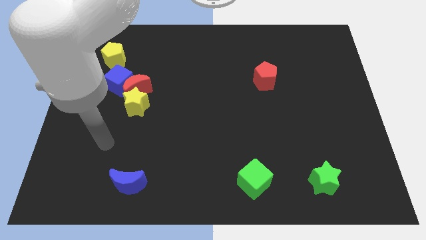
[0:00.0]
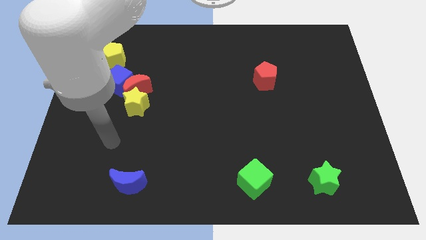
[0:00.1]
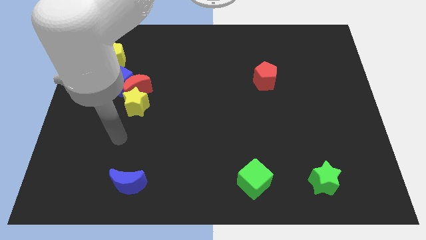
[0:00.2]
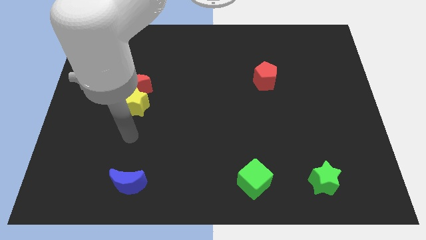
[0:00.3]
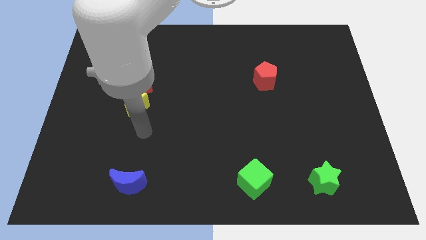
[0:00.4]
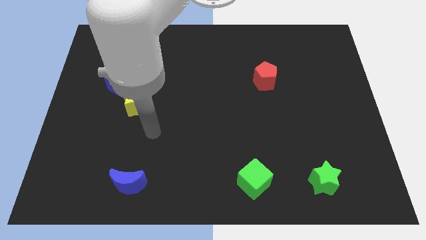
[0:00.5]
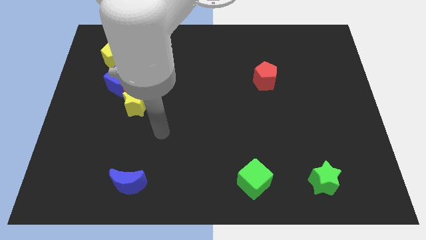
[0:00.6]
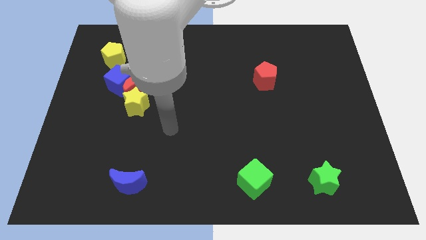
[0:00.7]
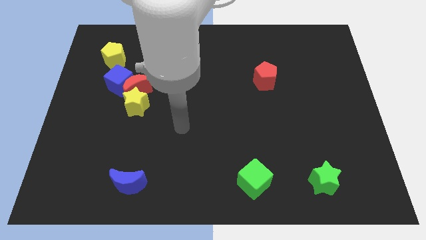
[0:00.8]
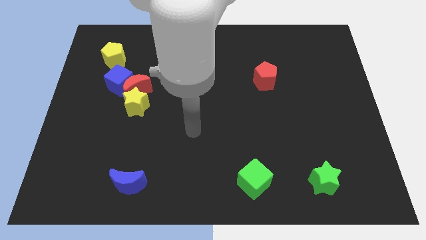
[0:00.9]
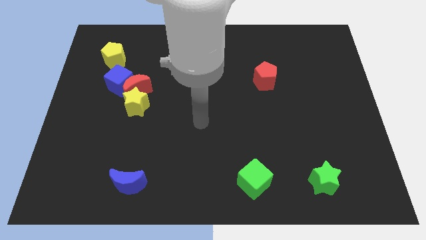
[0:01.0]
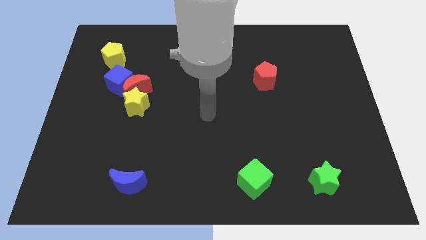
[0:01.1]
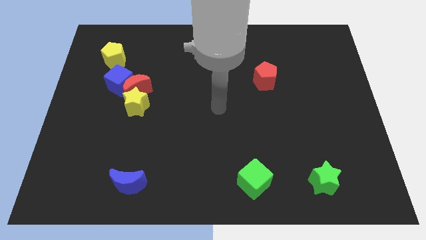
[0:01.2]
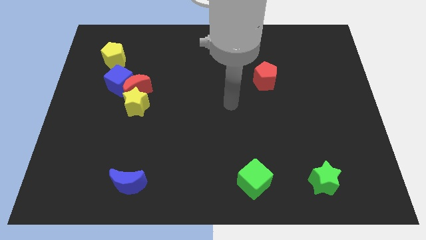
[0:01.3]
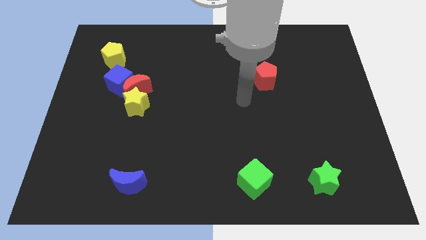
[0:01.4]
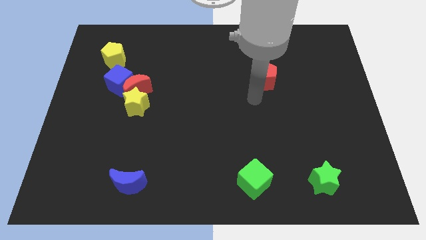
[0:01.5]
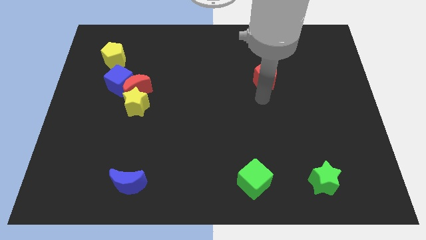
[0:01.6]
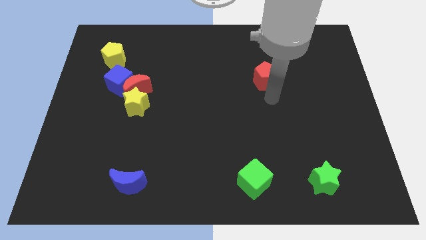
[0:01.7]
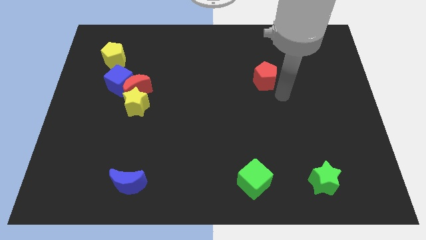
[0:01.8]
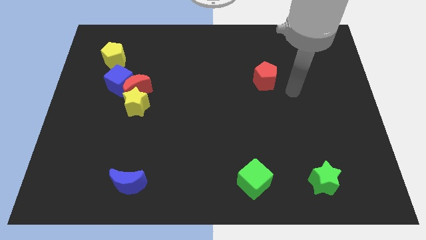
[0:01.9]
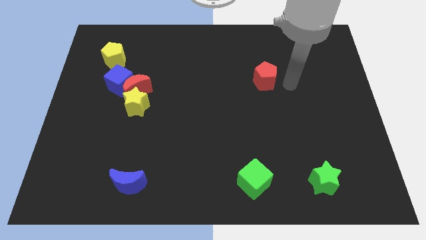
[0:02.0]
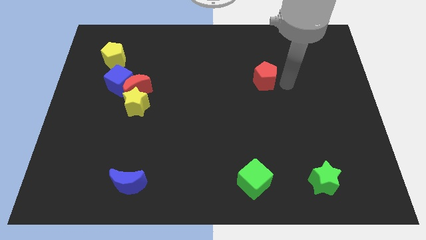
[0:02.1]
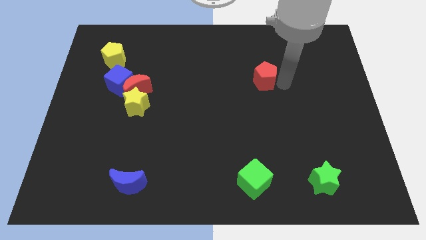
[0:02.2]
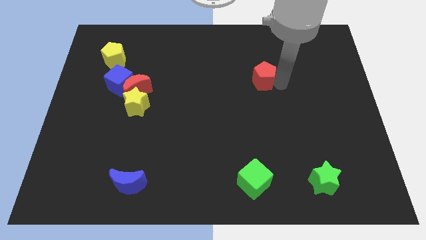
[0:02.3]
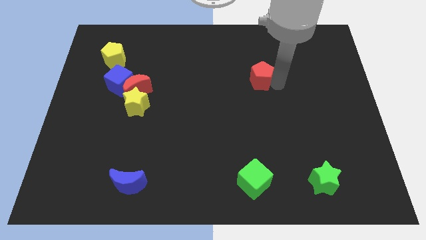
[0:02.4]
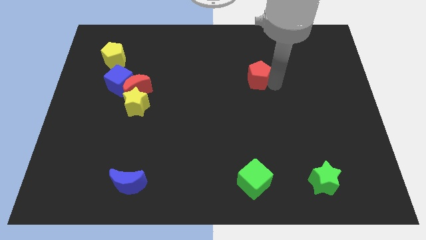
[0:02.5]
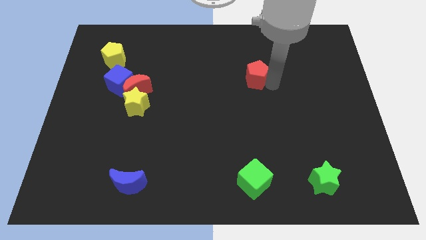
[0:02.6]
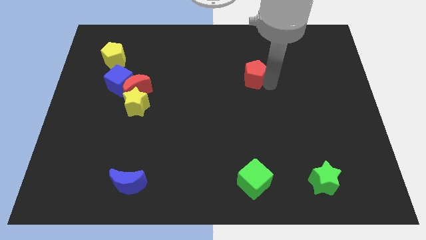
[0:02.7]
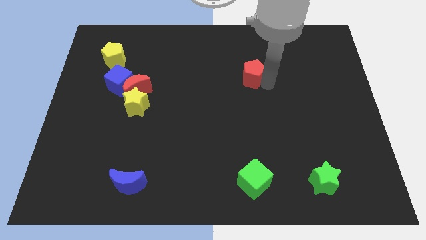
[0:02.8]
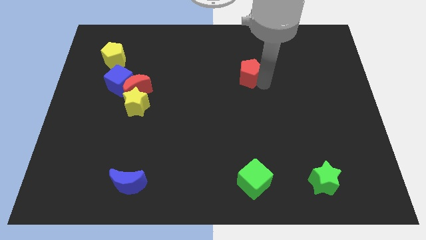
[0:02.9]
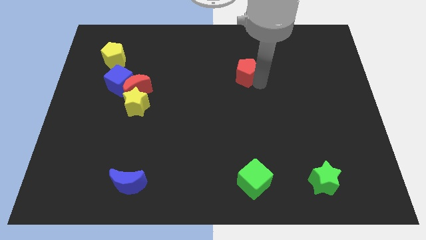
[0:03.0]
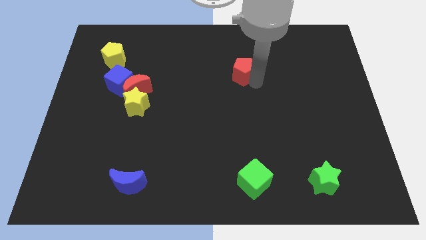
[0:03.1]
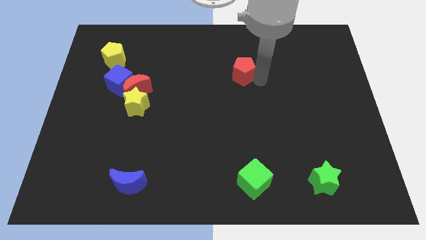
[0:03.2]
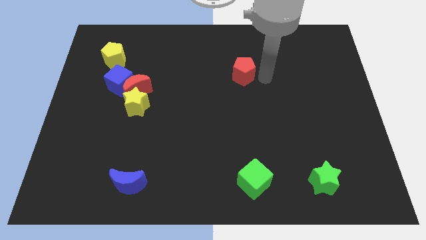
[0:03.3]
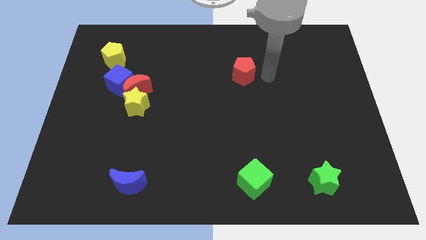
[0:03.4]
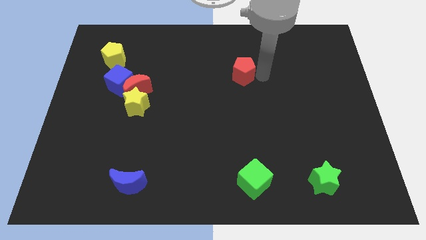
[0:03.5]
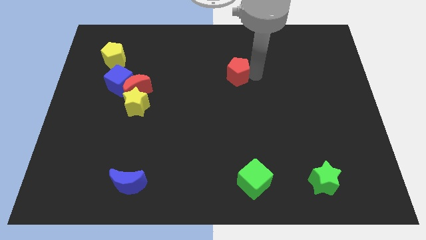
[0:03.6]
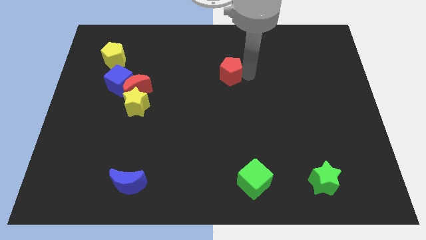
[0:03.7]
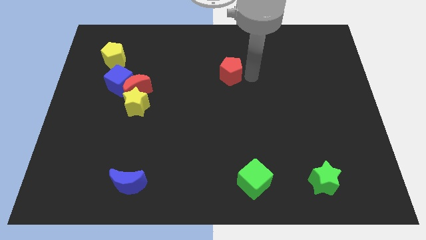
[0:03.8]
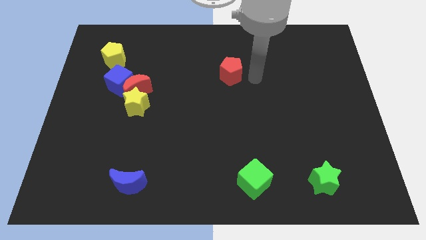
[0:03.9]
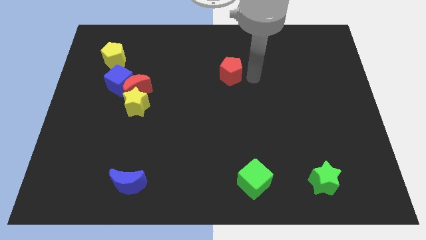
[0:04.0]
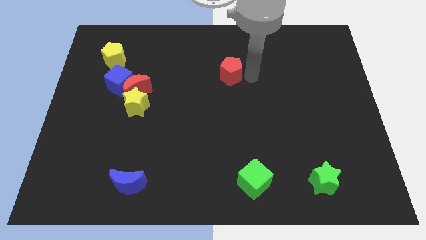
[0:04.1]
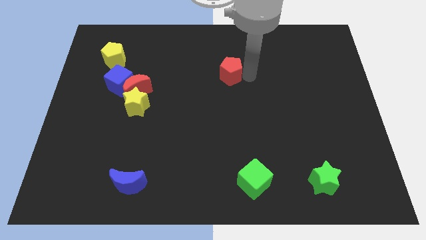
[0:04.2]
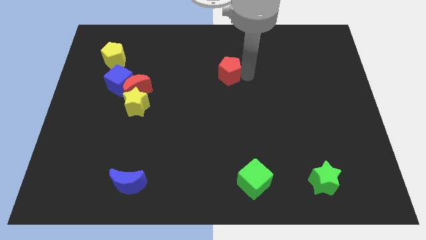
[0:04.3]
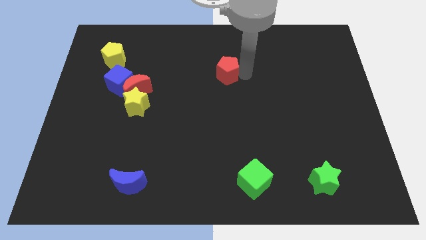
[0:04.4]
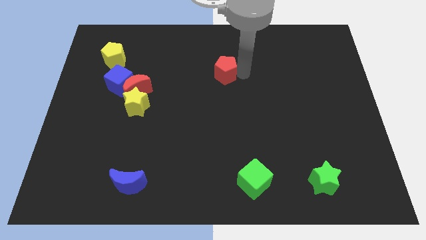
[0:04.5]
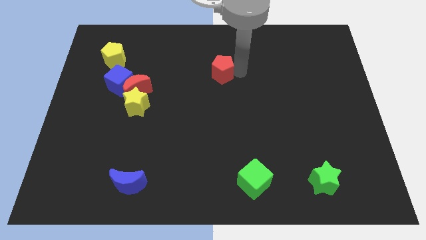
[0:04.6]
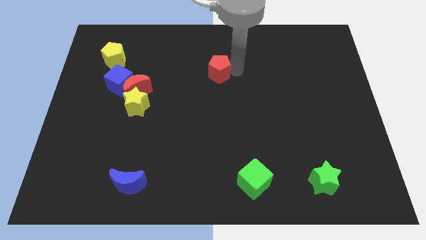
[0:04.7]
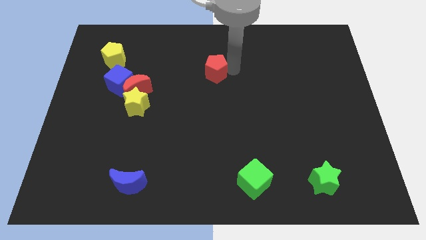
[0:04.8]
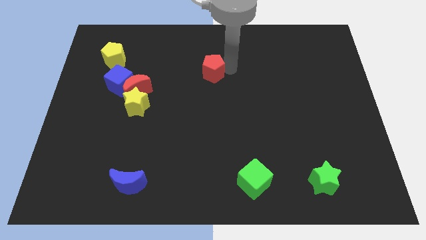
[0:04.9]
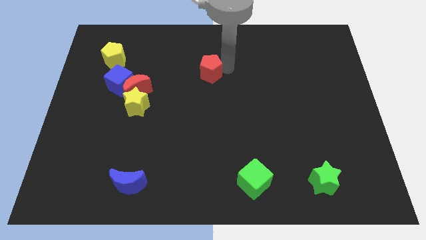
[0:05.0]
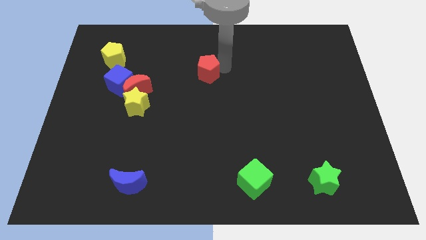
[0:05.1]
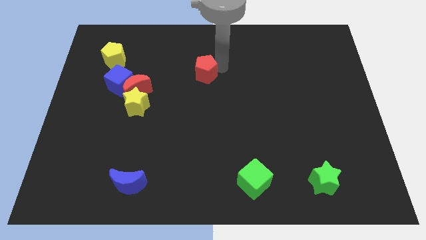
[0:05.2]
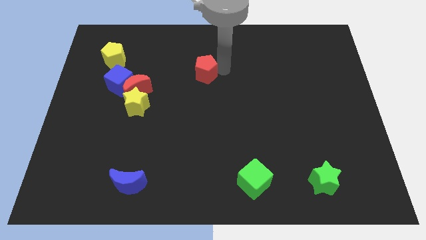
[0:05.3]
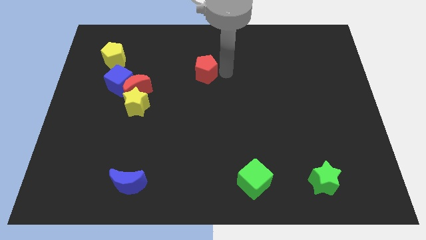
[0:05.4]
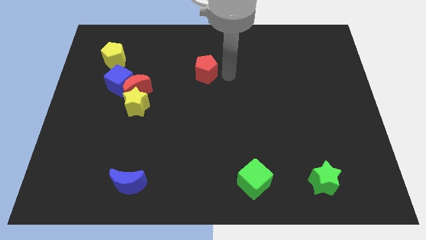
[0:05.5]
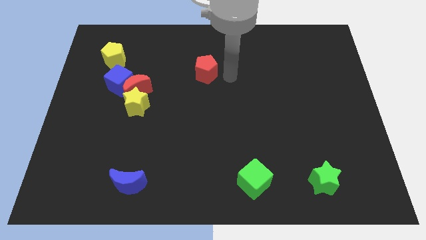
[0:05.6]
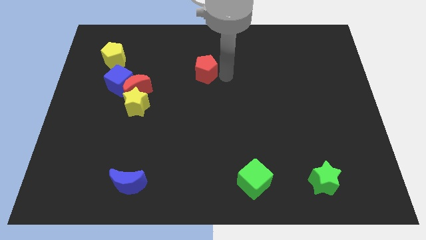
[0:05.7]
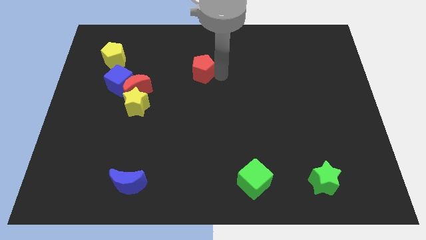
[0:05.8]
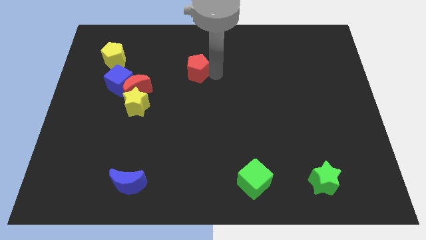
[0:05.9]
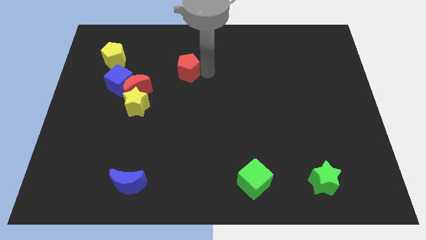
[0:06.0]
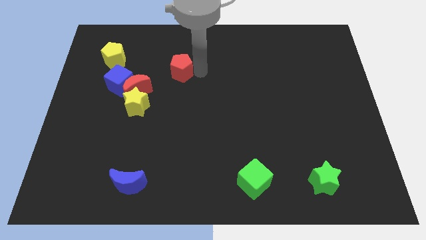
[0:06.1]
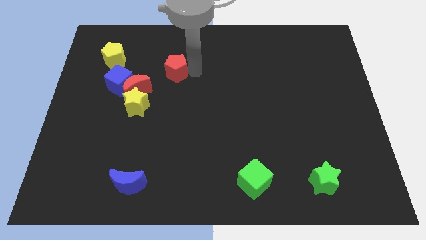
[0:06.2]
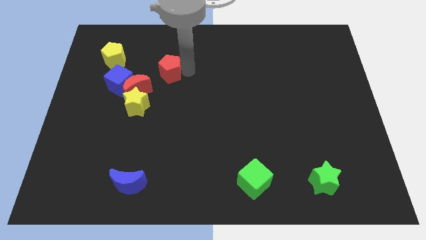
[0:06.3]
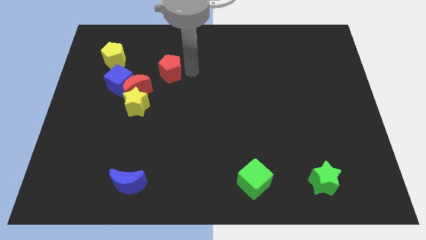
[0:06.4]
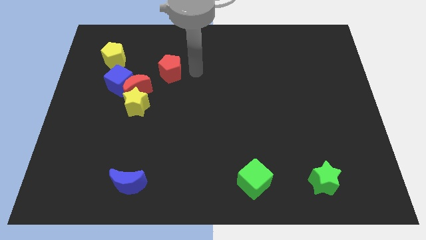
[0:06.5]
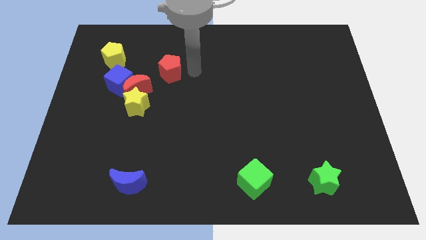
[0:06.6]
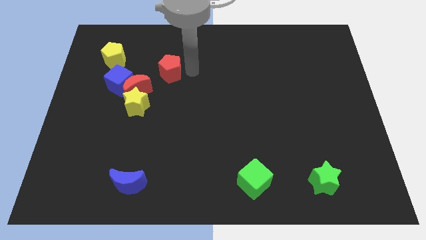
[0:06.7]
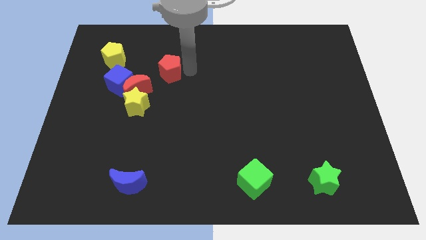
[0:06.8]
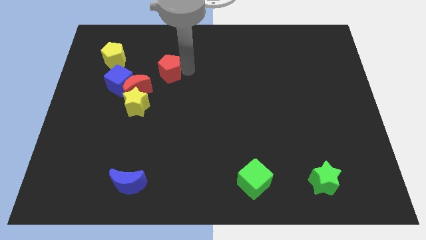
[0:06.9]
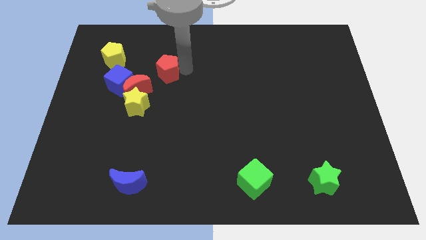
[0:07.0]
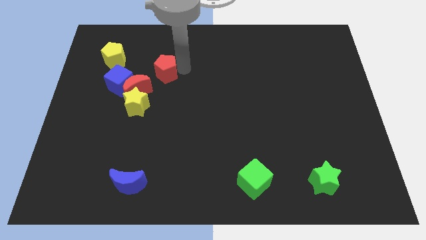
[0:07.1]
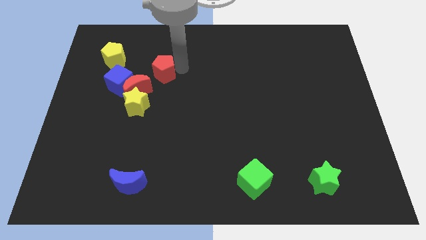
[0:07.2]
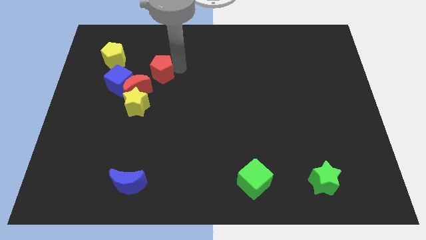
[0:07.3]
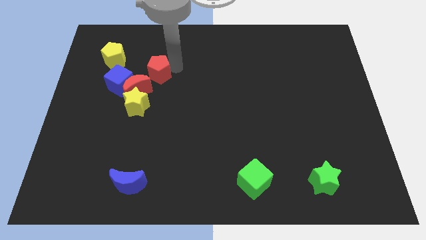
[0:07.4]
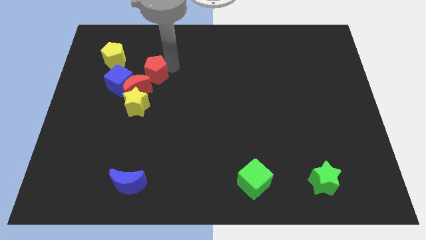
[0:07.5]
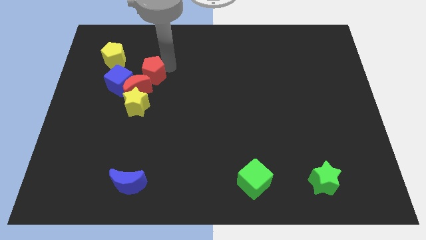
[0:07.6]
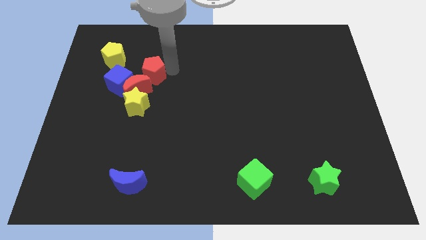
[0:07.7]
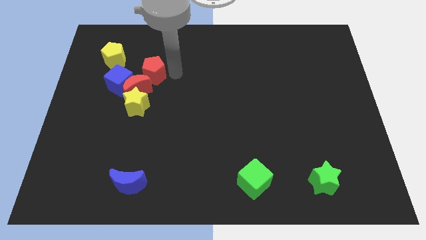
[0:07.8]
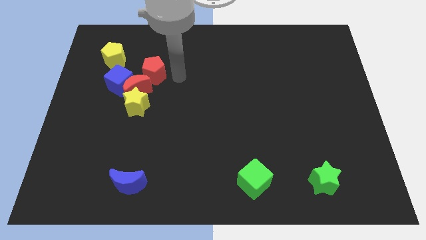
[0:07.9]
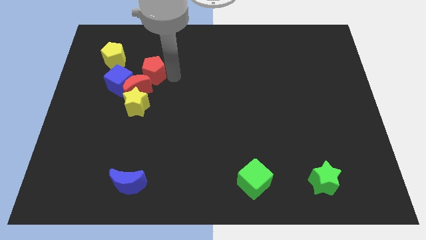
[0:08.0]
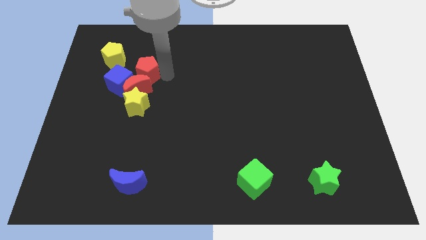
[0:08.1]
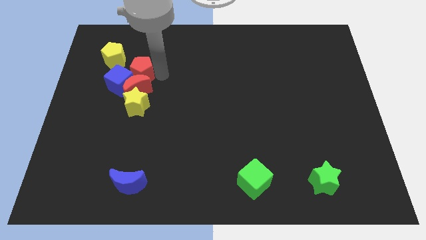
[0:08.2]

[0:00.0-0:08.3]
move the red pentagon to the top left side of the red moon
